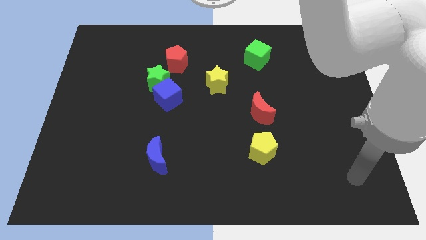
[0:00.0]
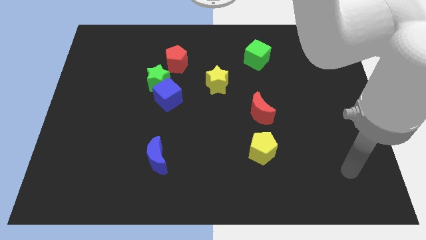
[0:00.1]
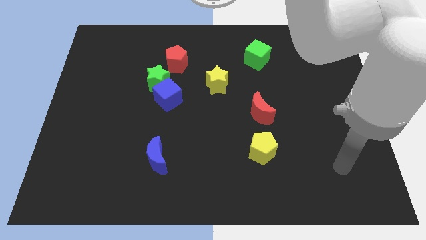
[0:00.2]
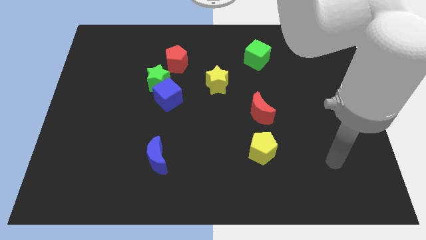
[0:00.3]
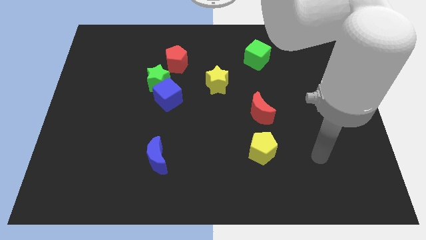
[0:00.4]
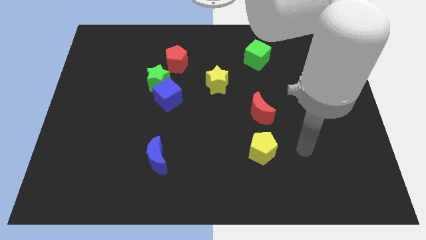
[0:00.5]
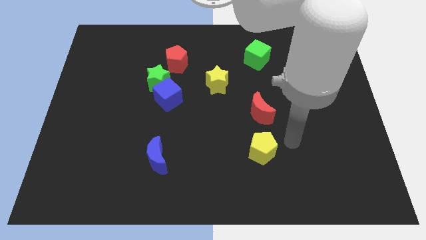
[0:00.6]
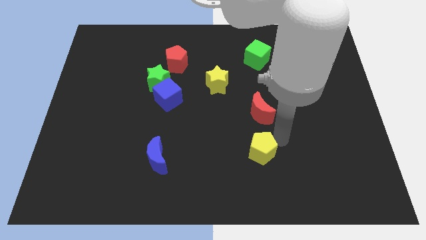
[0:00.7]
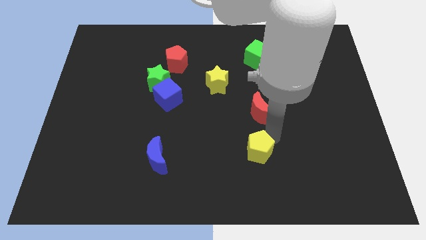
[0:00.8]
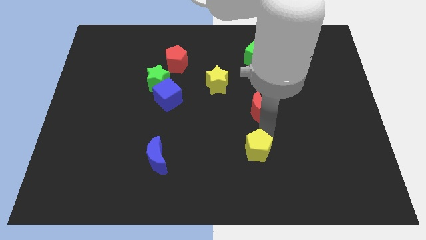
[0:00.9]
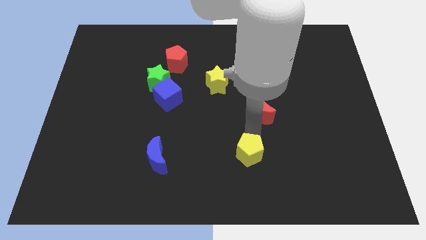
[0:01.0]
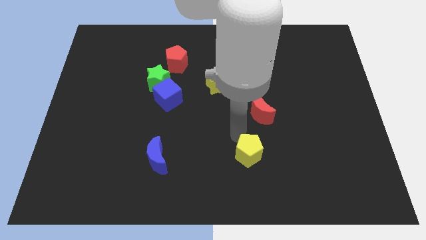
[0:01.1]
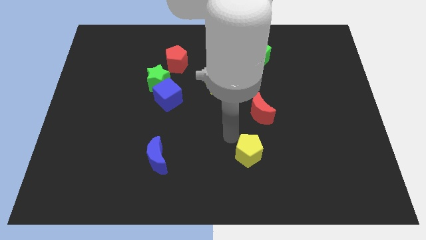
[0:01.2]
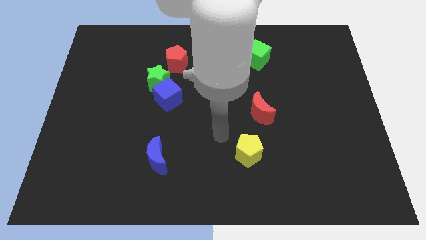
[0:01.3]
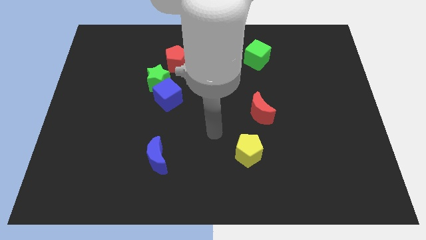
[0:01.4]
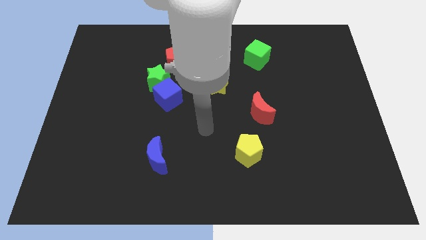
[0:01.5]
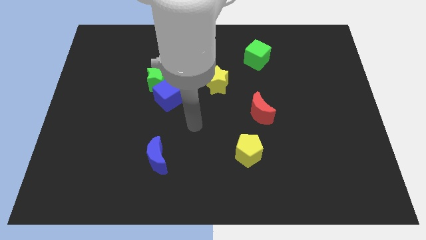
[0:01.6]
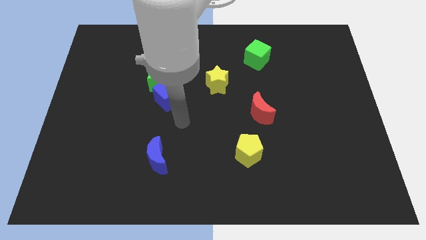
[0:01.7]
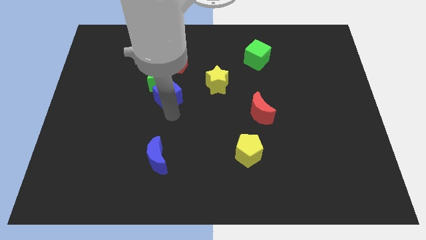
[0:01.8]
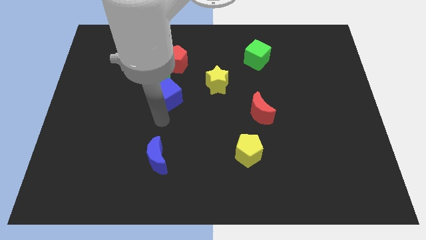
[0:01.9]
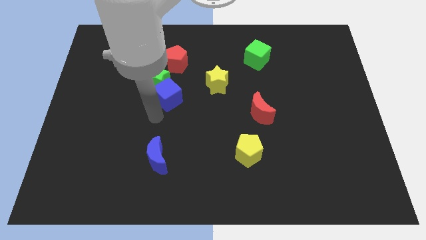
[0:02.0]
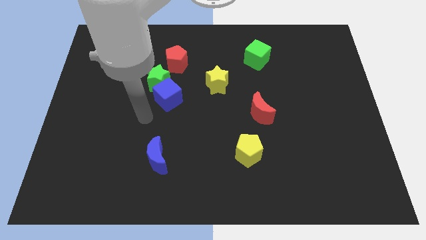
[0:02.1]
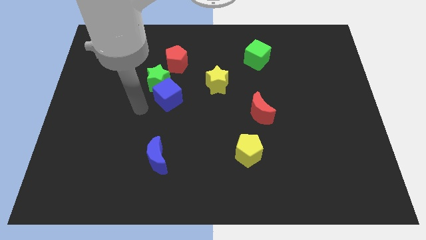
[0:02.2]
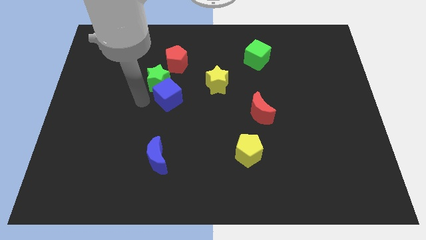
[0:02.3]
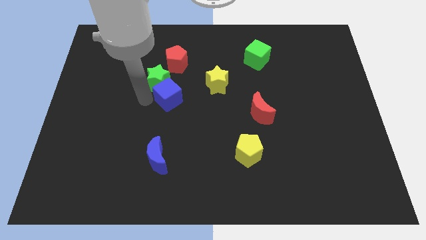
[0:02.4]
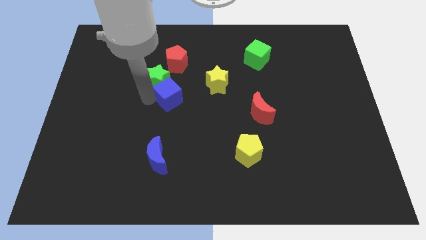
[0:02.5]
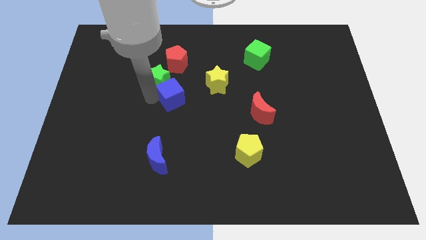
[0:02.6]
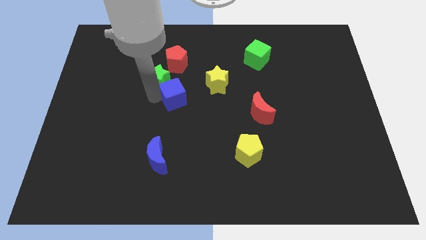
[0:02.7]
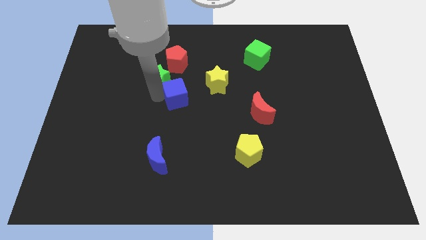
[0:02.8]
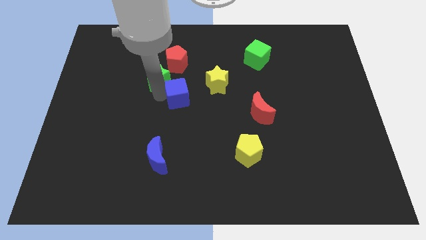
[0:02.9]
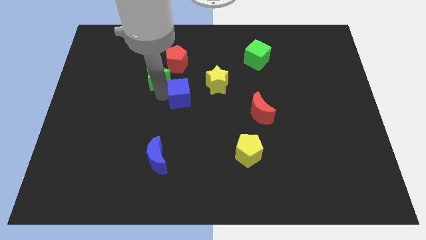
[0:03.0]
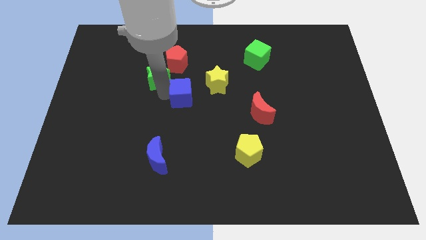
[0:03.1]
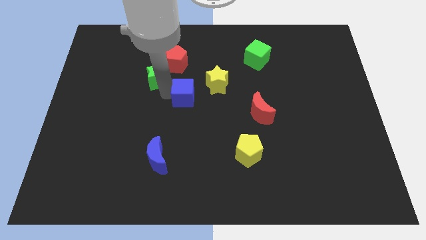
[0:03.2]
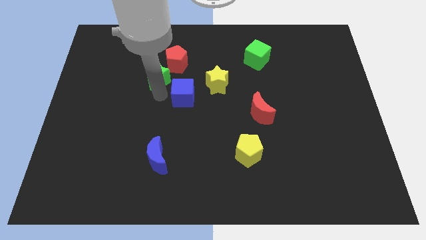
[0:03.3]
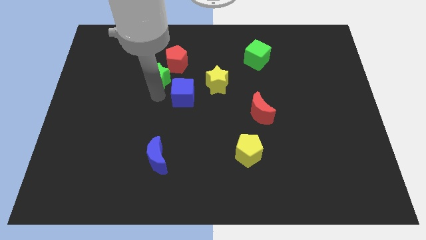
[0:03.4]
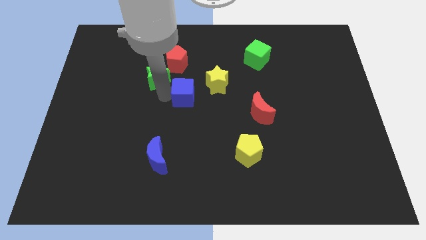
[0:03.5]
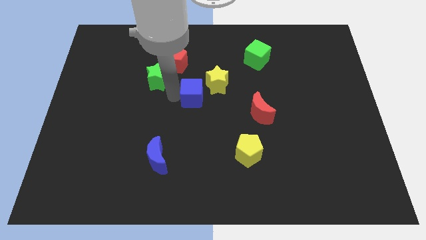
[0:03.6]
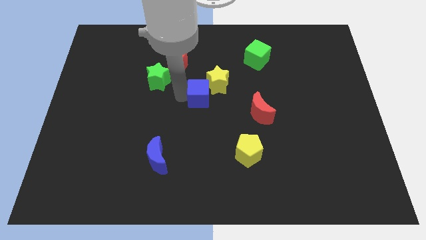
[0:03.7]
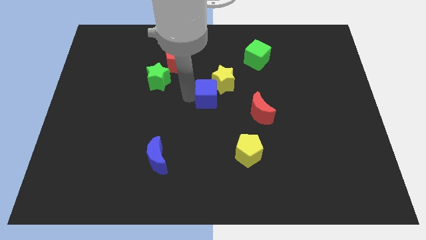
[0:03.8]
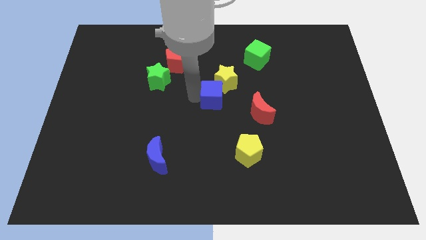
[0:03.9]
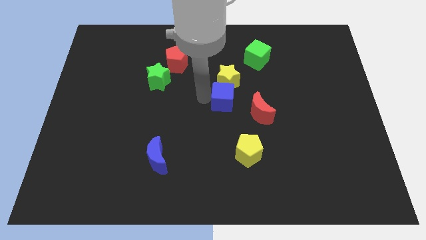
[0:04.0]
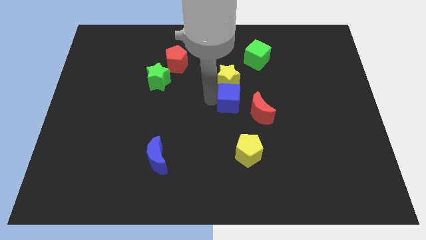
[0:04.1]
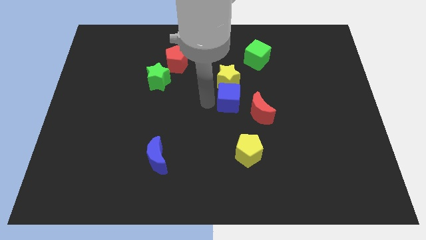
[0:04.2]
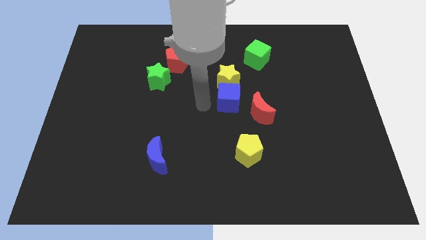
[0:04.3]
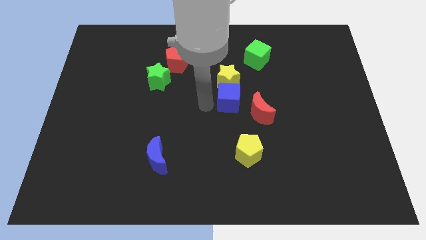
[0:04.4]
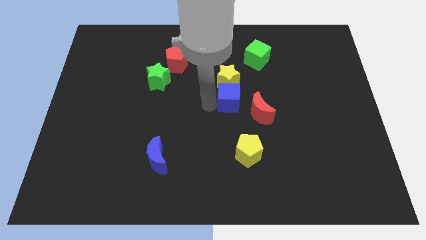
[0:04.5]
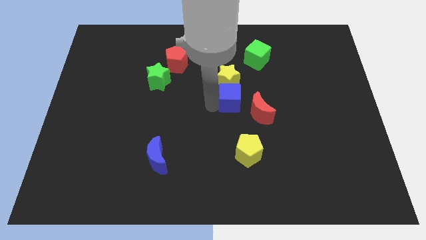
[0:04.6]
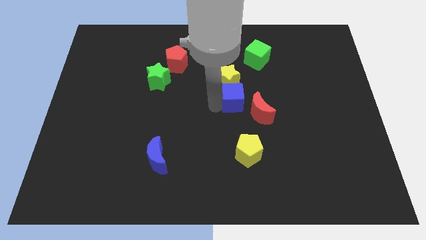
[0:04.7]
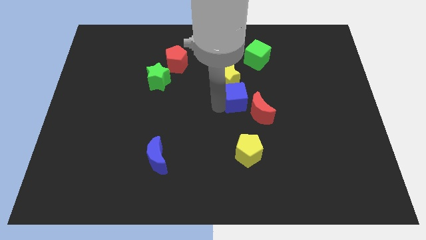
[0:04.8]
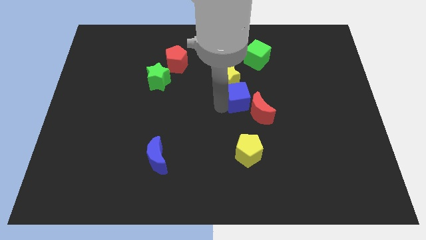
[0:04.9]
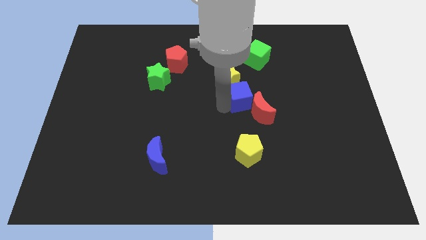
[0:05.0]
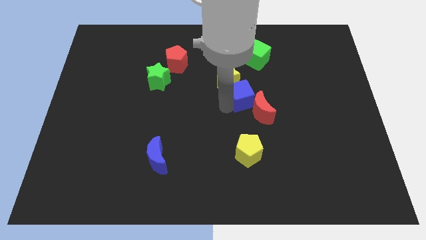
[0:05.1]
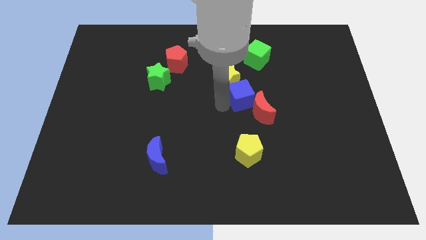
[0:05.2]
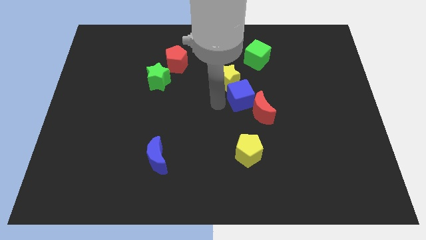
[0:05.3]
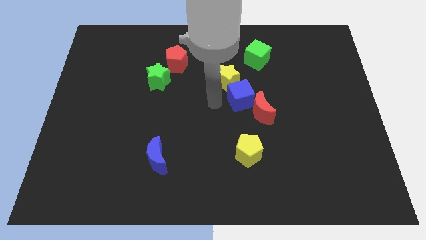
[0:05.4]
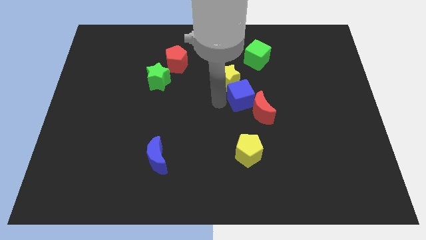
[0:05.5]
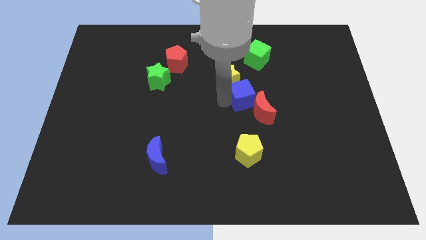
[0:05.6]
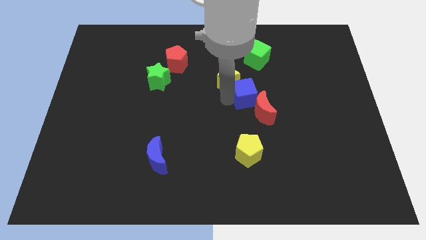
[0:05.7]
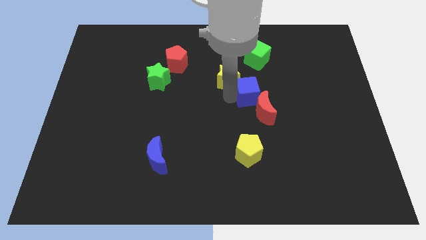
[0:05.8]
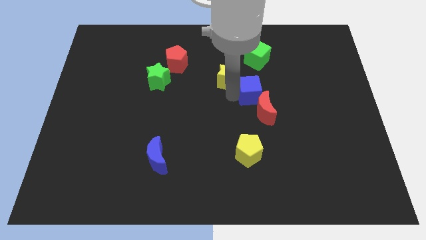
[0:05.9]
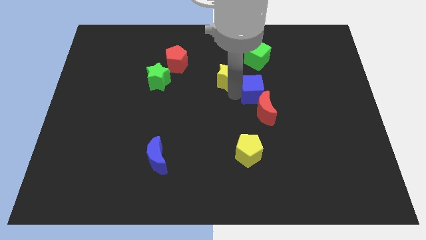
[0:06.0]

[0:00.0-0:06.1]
move the blue cube right

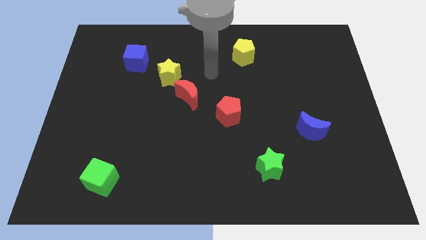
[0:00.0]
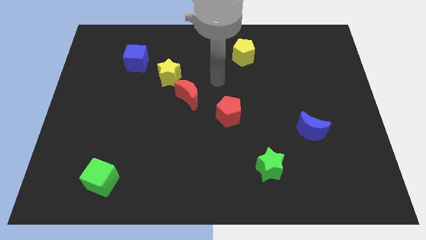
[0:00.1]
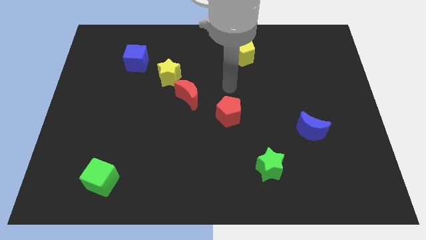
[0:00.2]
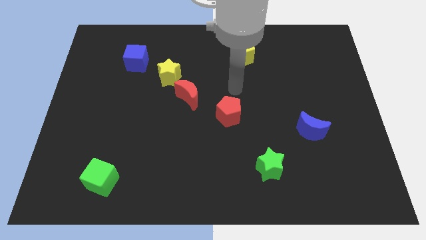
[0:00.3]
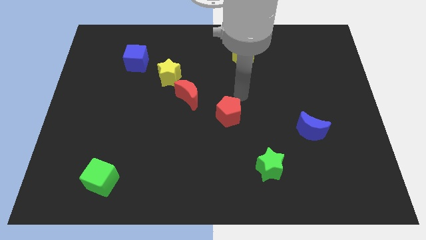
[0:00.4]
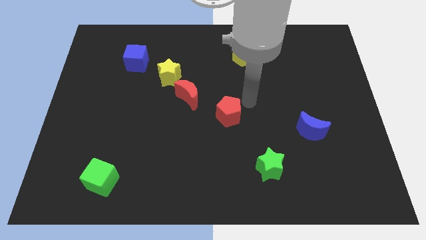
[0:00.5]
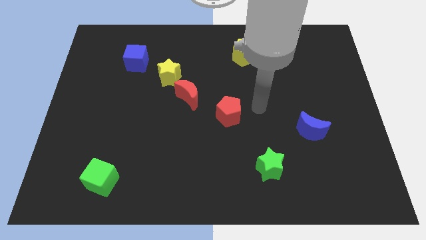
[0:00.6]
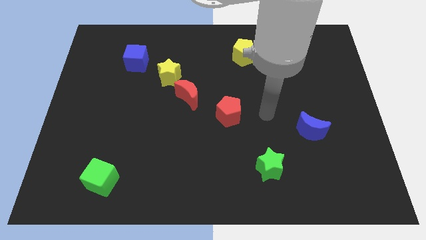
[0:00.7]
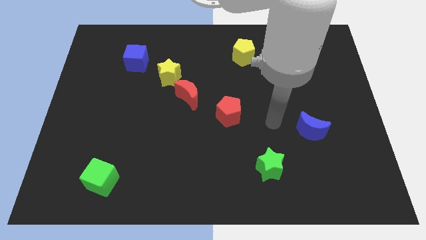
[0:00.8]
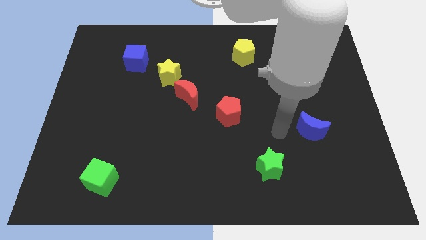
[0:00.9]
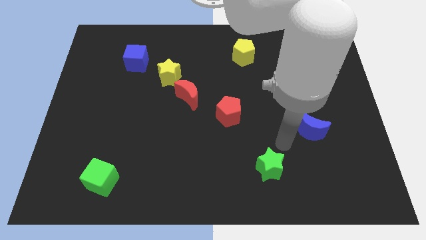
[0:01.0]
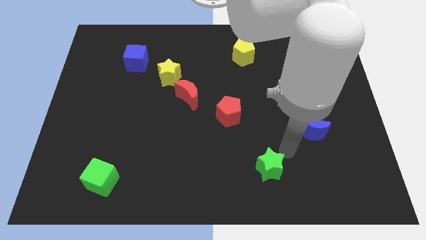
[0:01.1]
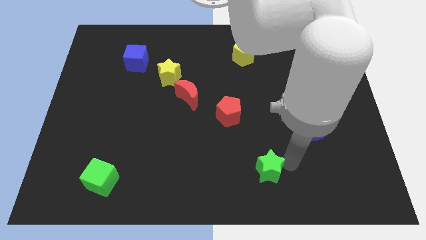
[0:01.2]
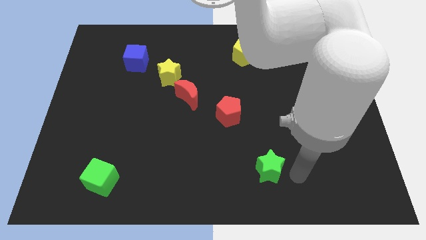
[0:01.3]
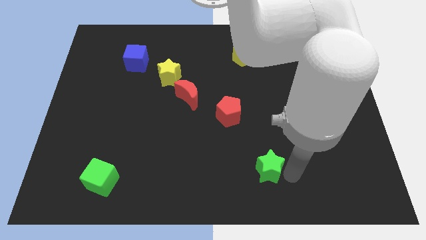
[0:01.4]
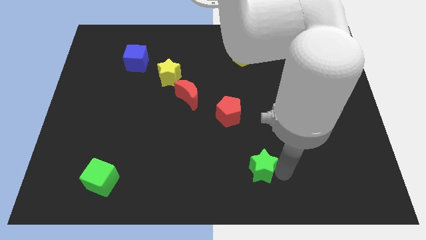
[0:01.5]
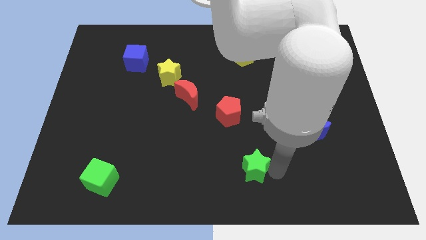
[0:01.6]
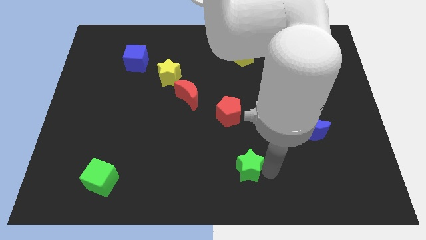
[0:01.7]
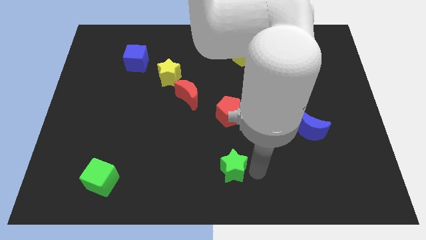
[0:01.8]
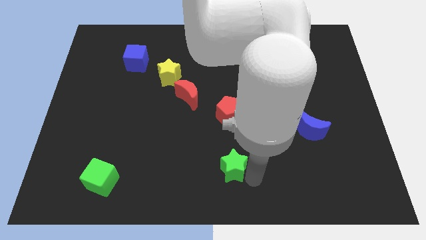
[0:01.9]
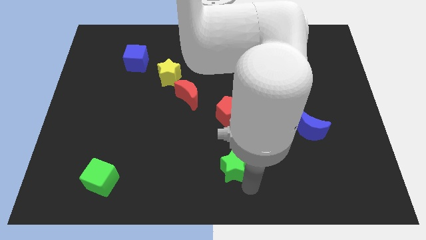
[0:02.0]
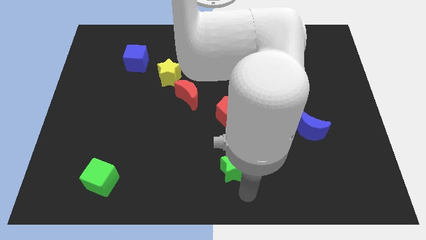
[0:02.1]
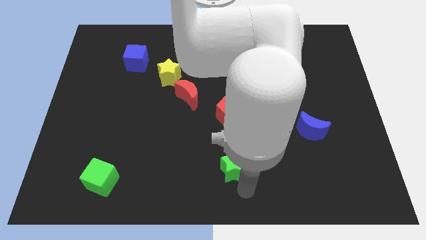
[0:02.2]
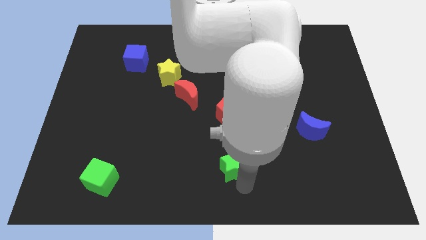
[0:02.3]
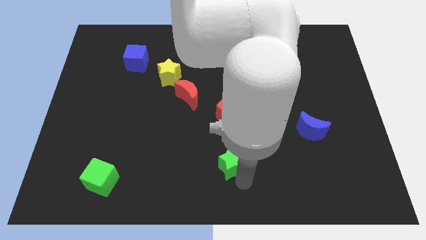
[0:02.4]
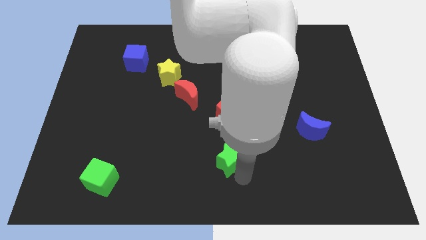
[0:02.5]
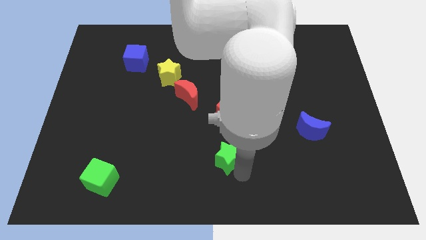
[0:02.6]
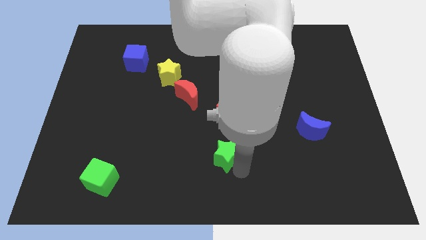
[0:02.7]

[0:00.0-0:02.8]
slightly move the green star diagonally up and to the left
